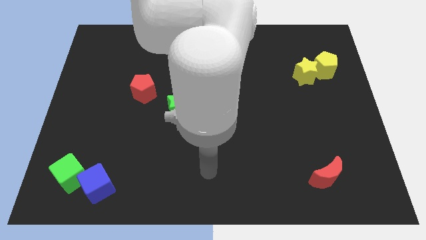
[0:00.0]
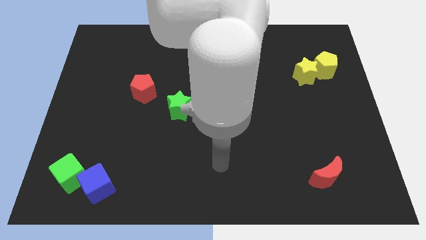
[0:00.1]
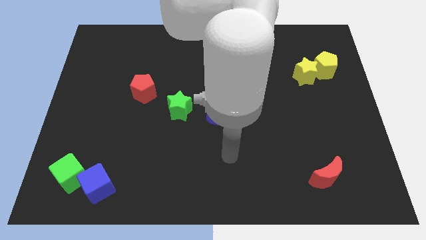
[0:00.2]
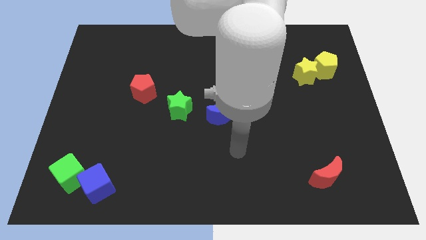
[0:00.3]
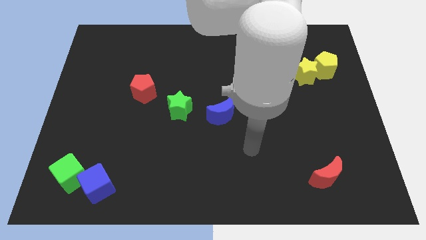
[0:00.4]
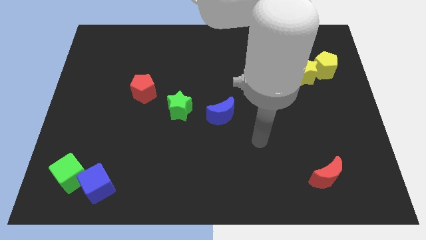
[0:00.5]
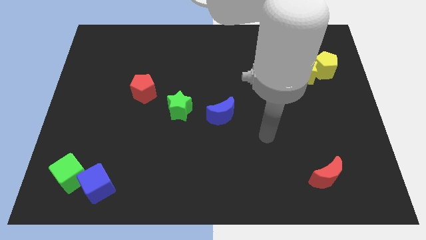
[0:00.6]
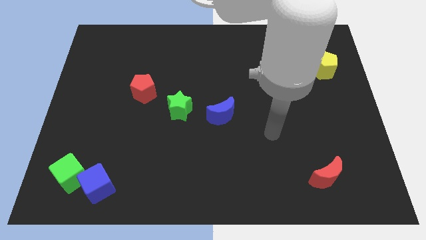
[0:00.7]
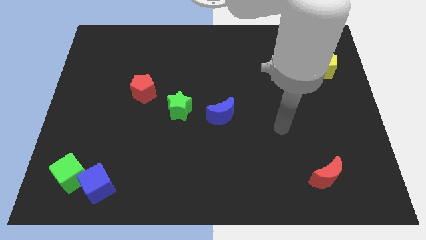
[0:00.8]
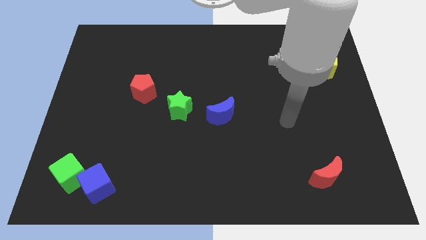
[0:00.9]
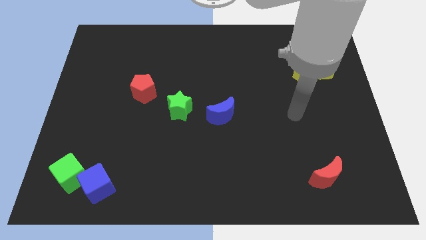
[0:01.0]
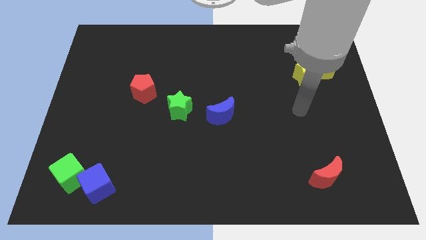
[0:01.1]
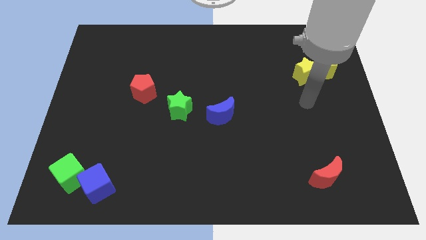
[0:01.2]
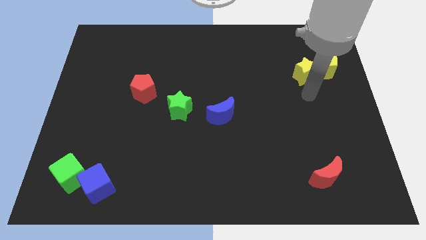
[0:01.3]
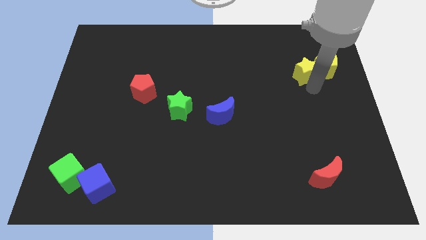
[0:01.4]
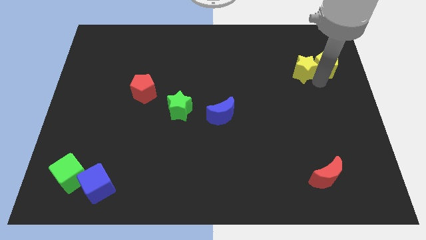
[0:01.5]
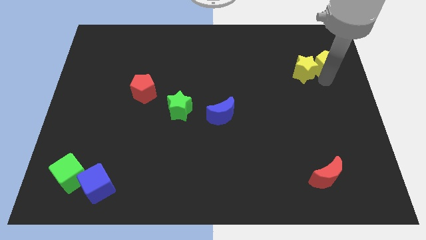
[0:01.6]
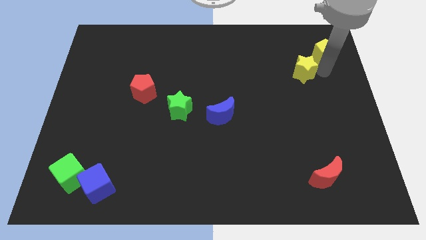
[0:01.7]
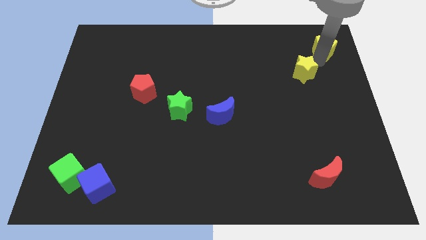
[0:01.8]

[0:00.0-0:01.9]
pull the yellow star apart from the yellow pentagon

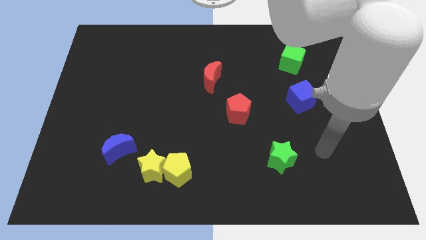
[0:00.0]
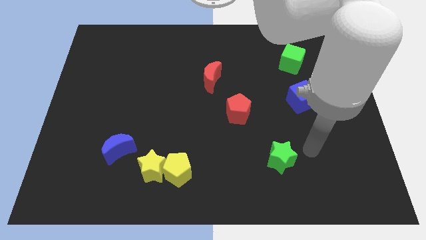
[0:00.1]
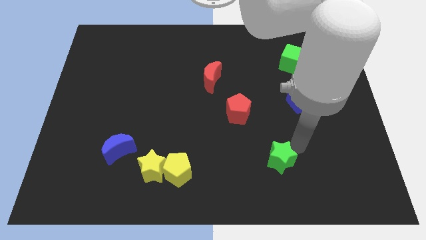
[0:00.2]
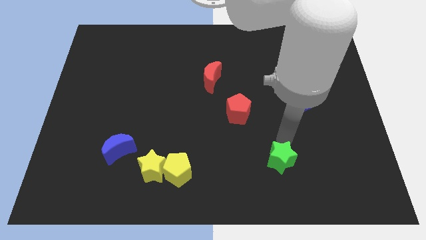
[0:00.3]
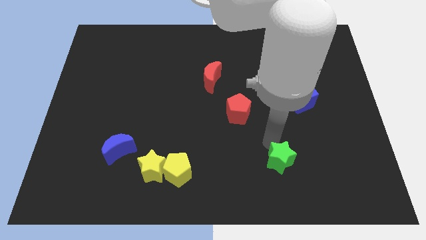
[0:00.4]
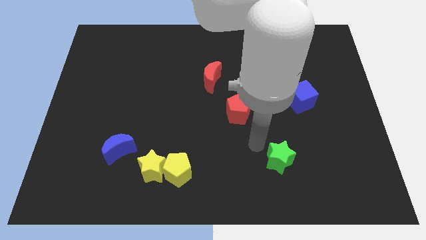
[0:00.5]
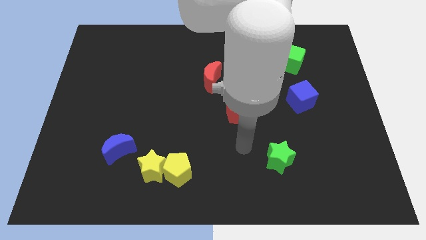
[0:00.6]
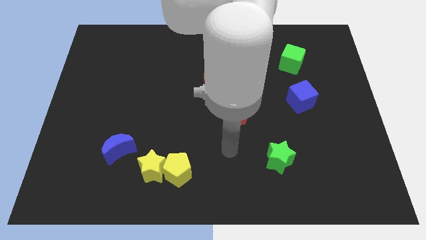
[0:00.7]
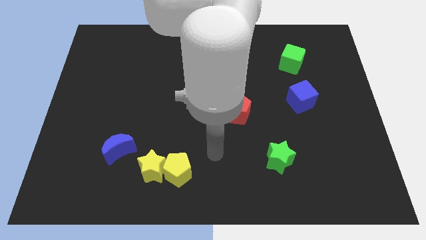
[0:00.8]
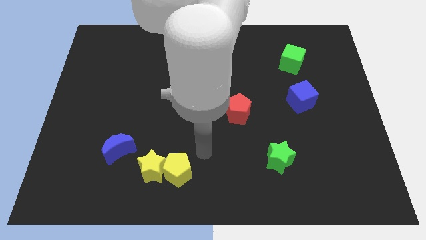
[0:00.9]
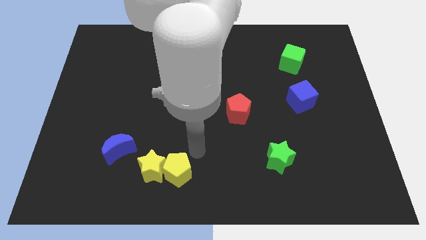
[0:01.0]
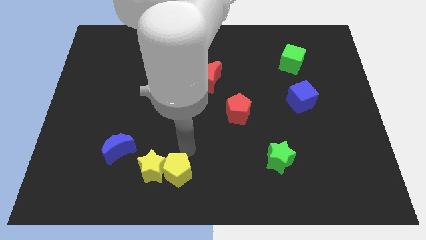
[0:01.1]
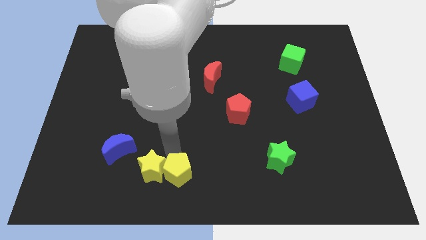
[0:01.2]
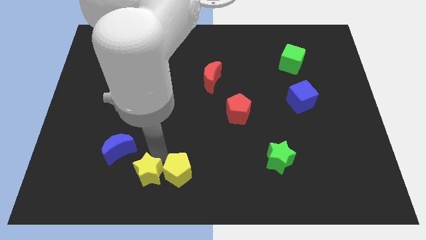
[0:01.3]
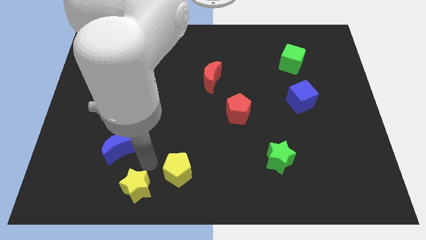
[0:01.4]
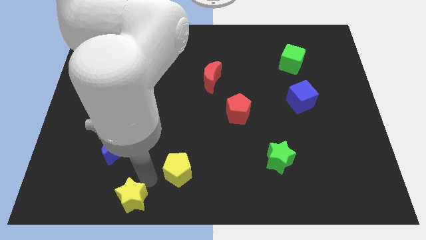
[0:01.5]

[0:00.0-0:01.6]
pull the yellow pentagon apart from the yellow star

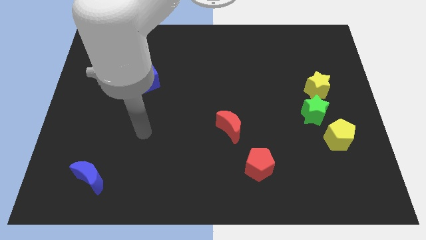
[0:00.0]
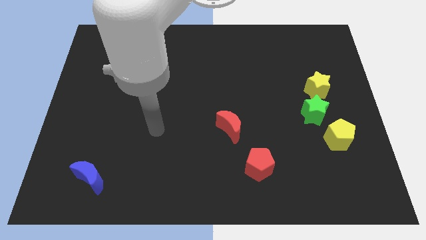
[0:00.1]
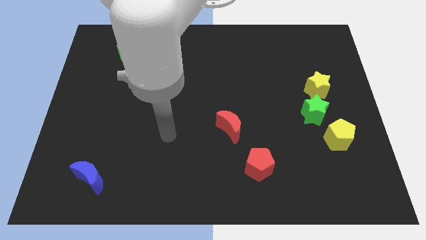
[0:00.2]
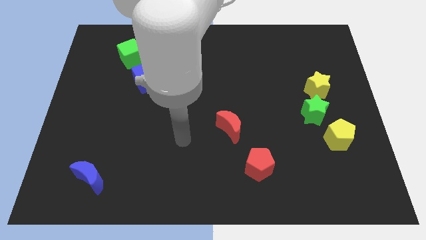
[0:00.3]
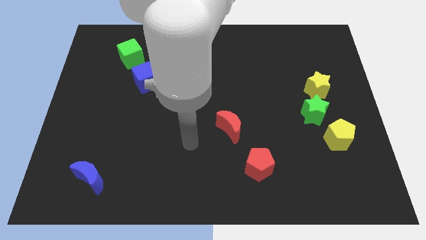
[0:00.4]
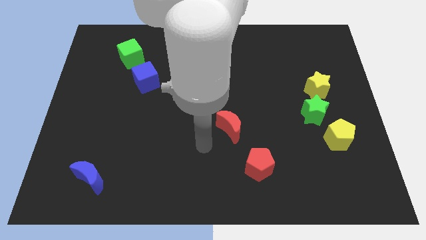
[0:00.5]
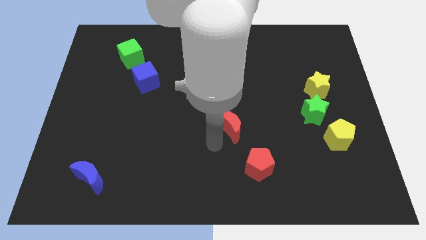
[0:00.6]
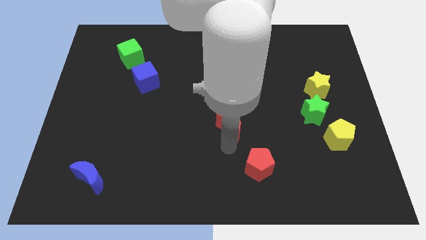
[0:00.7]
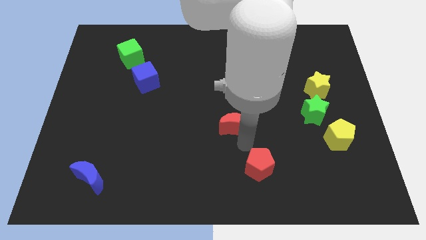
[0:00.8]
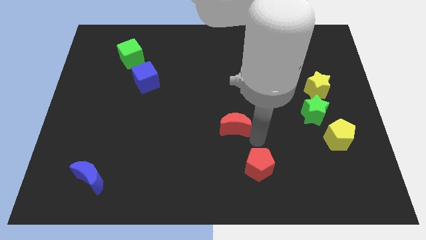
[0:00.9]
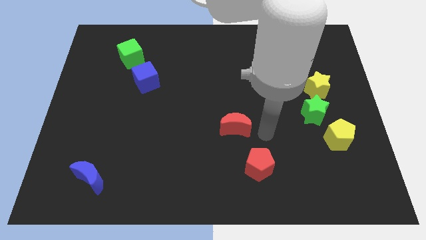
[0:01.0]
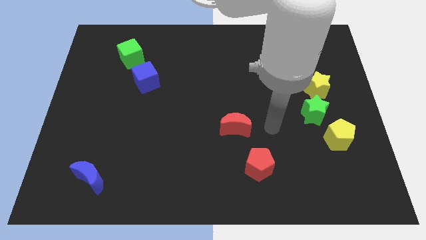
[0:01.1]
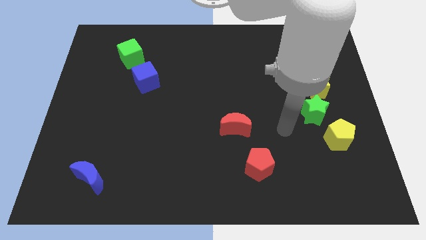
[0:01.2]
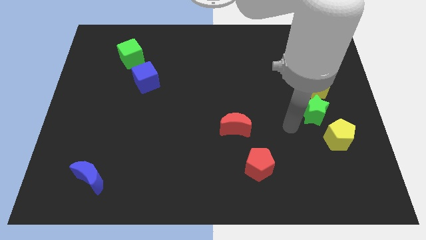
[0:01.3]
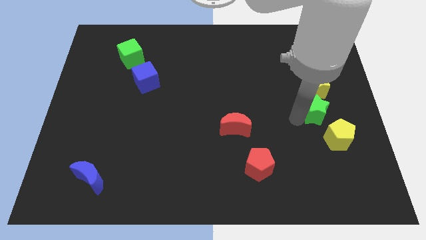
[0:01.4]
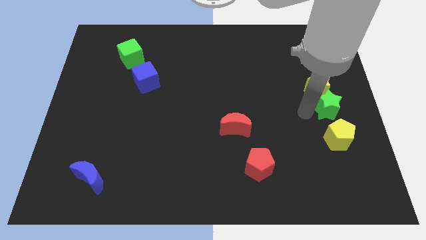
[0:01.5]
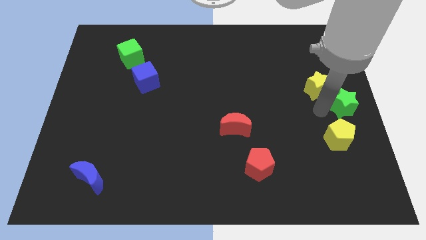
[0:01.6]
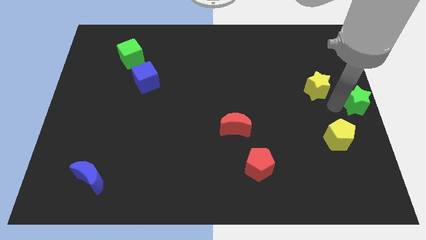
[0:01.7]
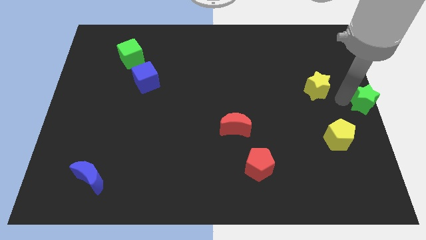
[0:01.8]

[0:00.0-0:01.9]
move the yellow star away from the green star

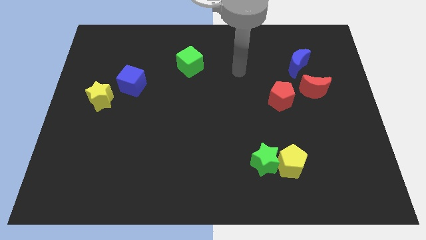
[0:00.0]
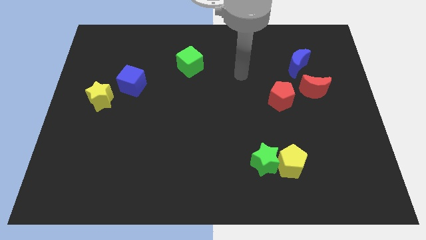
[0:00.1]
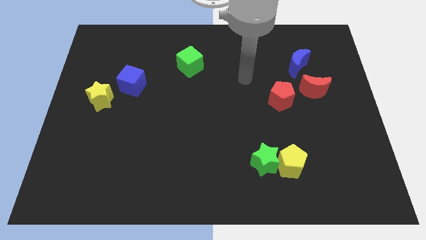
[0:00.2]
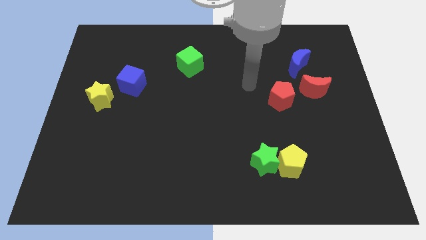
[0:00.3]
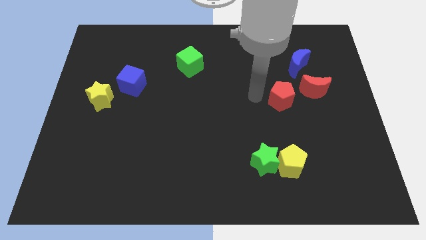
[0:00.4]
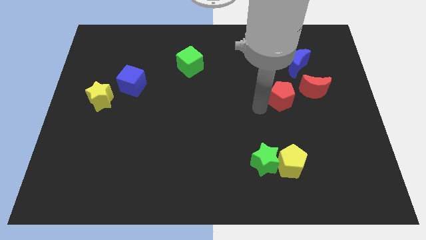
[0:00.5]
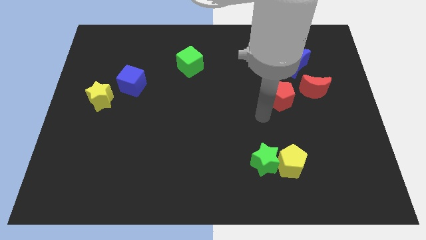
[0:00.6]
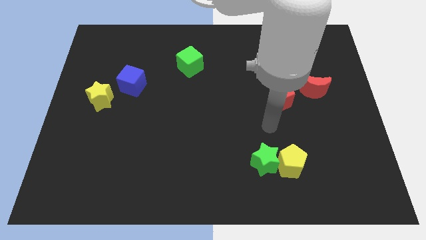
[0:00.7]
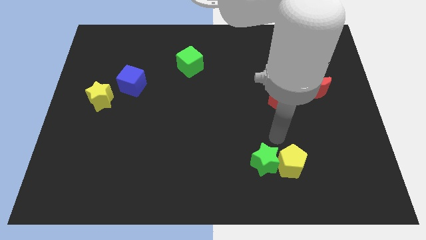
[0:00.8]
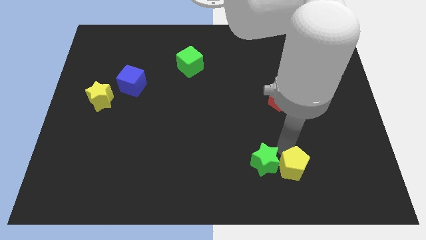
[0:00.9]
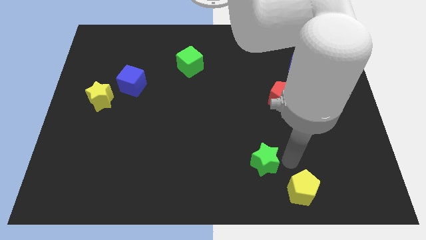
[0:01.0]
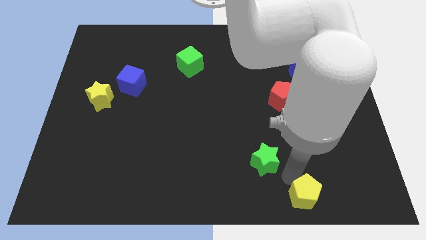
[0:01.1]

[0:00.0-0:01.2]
pull the green star apart from the yellow pentagon

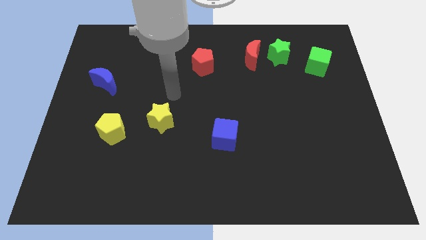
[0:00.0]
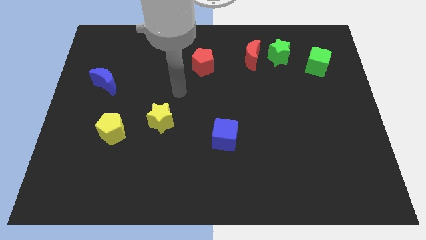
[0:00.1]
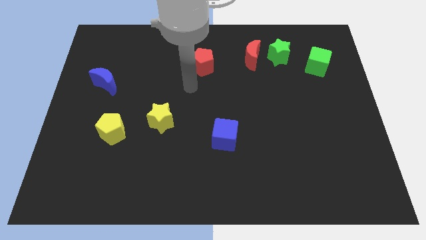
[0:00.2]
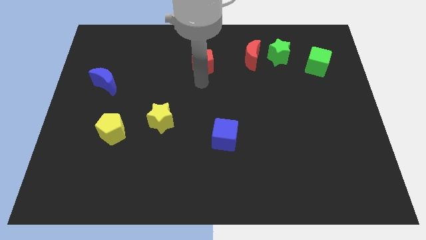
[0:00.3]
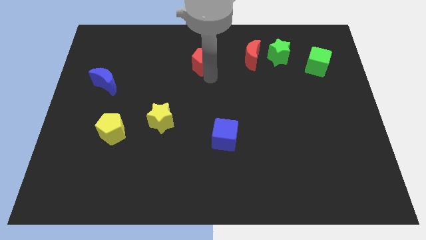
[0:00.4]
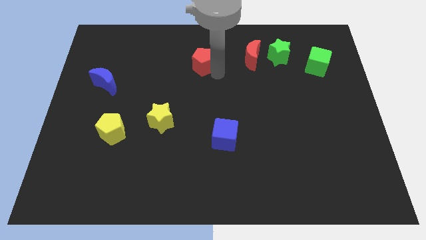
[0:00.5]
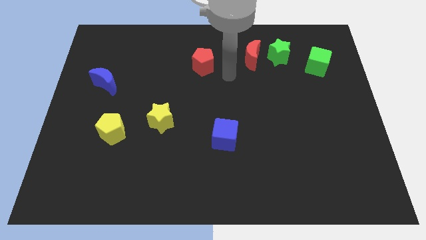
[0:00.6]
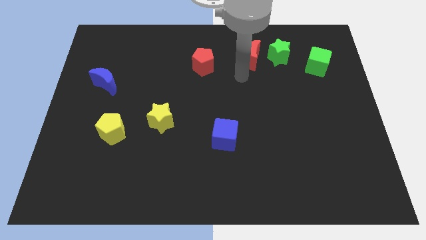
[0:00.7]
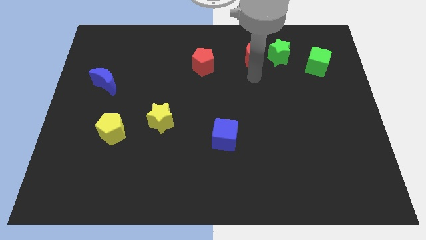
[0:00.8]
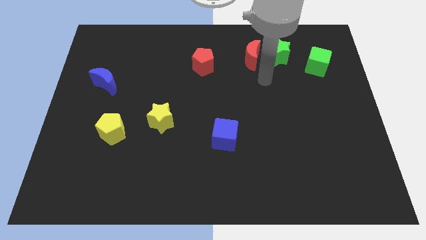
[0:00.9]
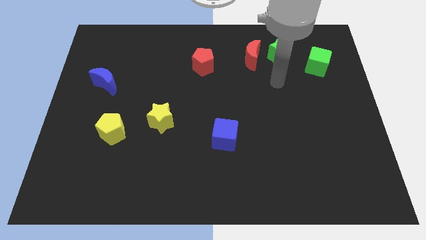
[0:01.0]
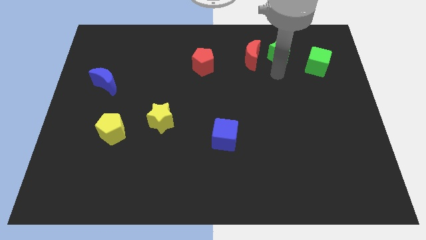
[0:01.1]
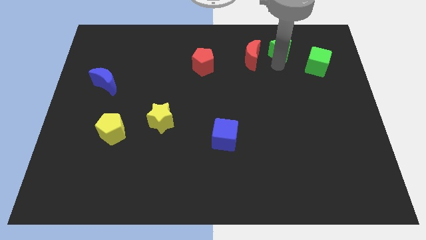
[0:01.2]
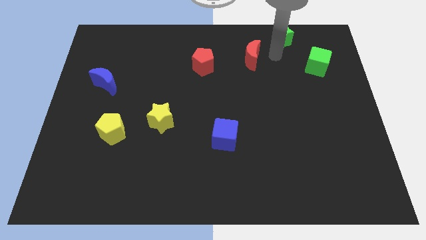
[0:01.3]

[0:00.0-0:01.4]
pull the red moon apart from the green star

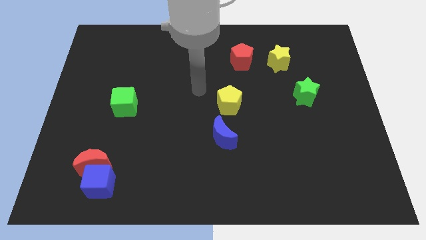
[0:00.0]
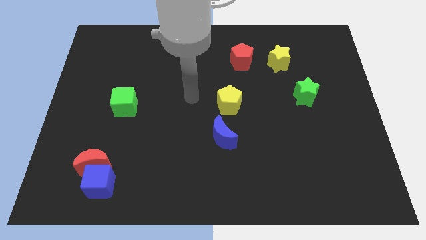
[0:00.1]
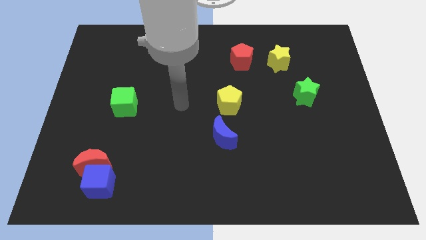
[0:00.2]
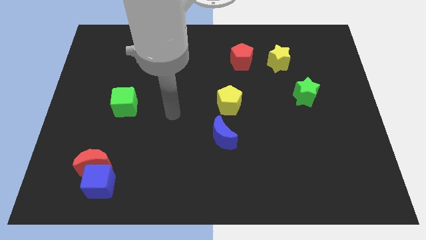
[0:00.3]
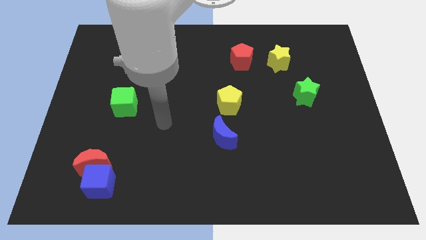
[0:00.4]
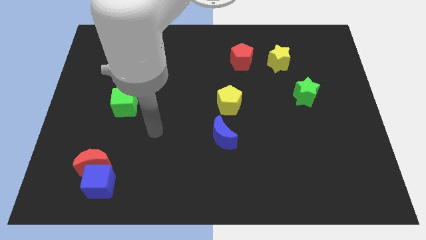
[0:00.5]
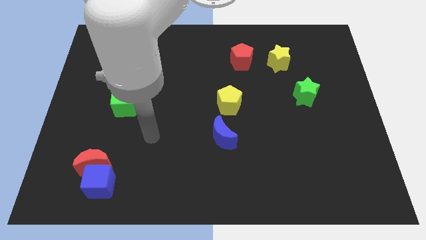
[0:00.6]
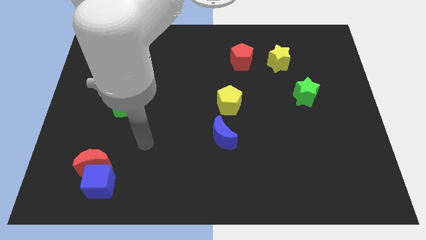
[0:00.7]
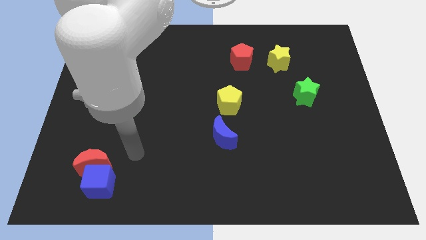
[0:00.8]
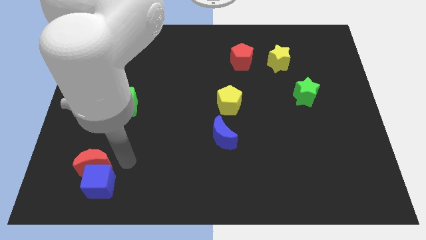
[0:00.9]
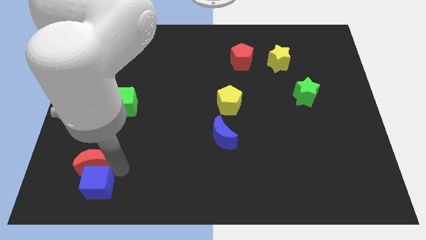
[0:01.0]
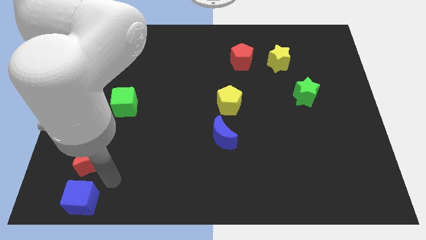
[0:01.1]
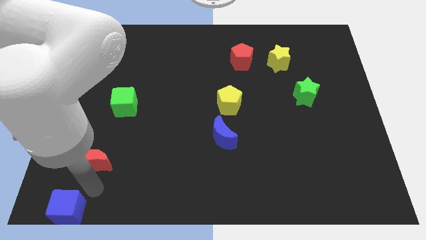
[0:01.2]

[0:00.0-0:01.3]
separate the red moon from the blue cube
